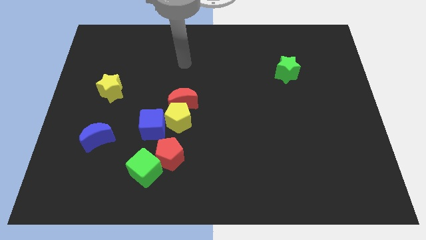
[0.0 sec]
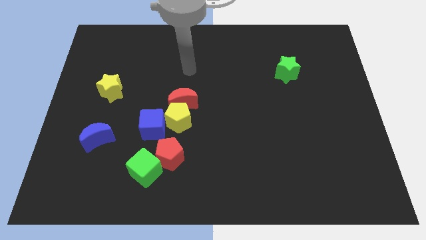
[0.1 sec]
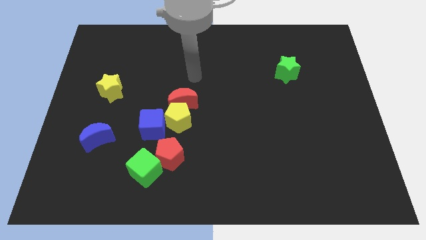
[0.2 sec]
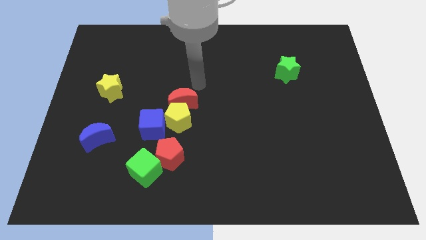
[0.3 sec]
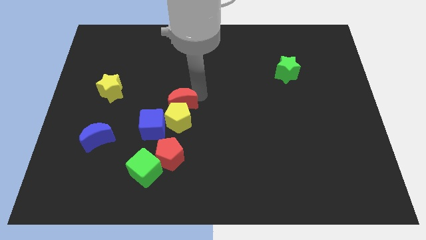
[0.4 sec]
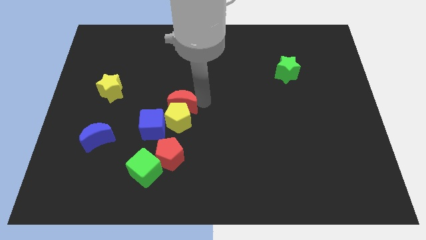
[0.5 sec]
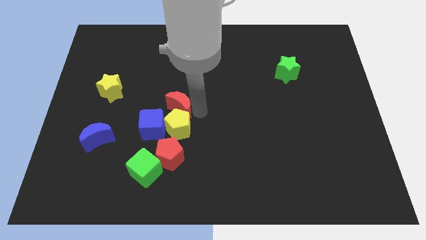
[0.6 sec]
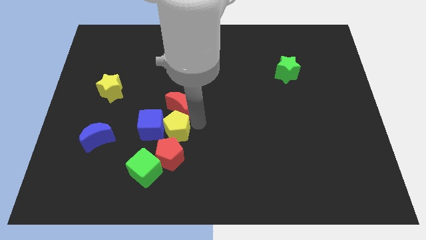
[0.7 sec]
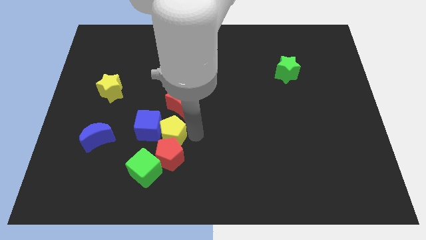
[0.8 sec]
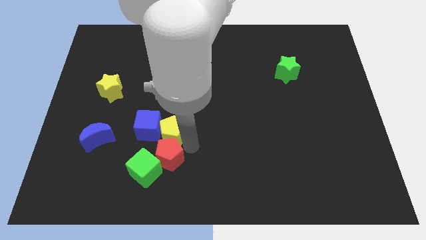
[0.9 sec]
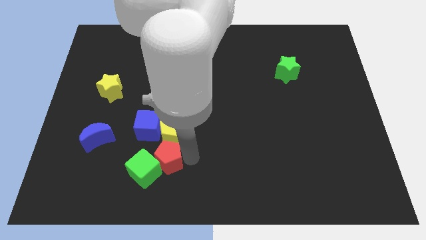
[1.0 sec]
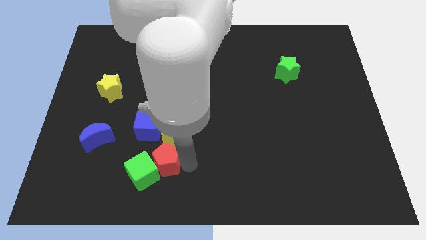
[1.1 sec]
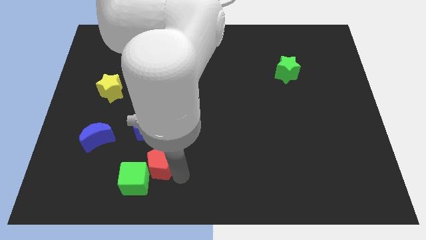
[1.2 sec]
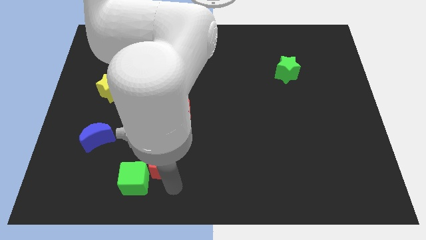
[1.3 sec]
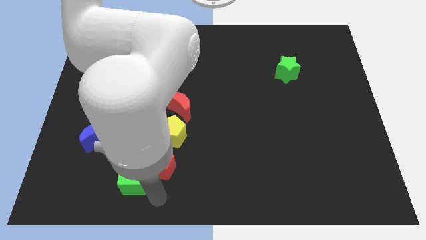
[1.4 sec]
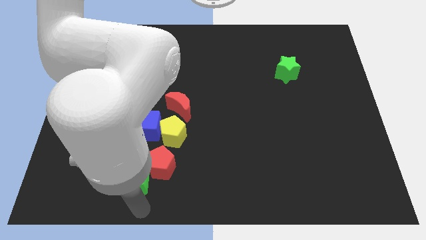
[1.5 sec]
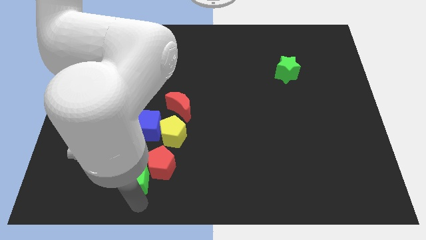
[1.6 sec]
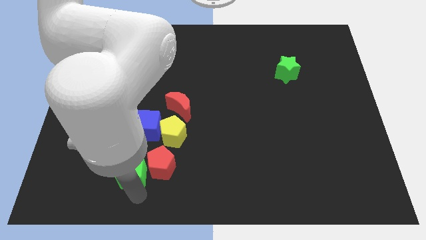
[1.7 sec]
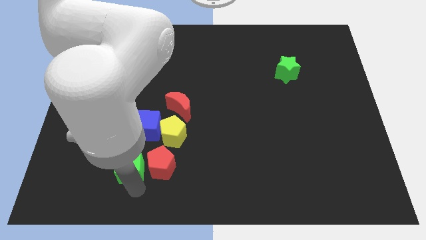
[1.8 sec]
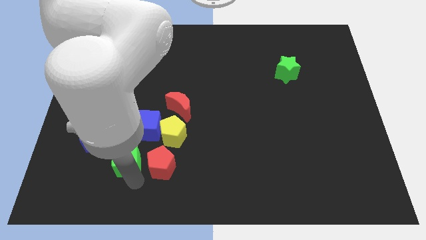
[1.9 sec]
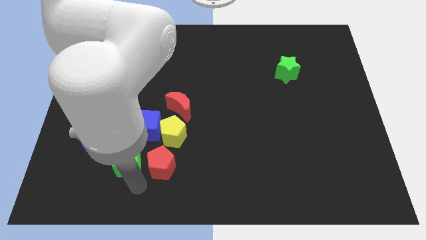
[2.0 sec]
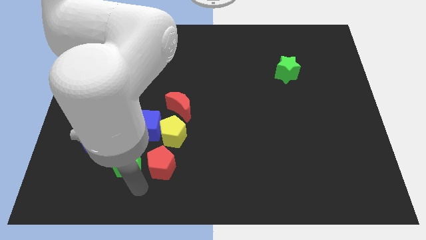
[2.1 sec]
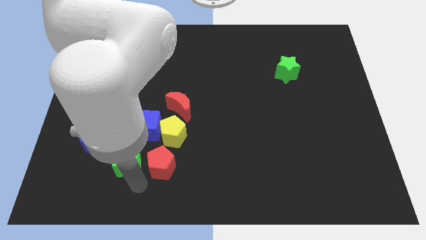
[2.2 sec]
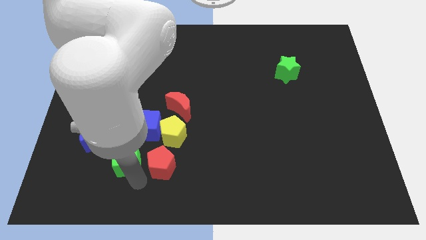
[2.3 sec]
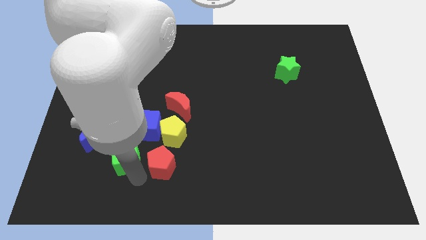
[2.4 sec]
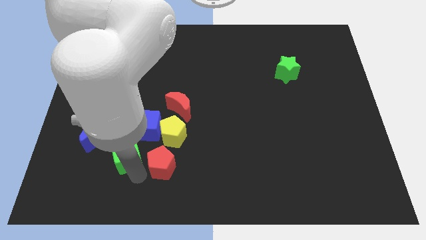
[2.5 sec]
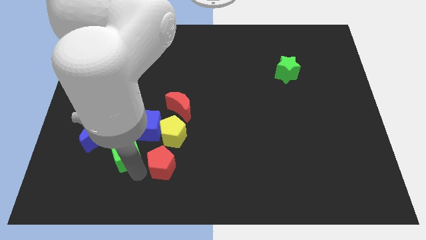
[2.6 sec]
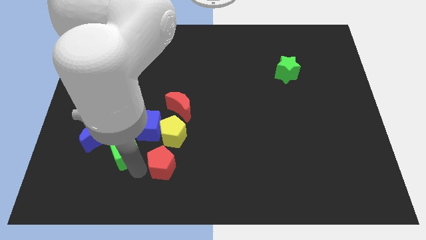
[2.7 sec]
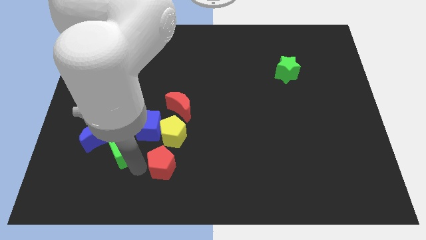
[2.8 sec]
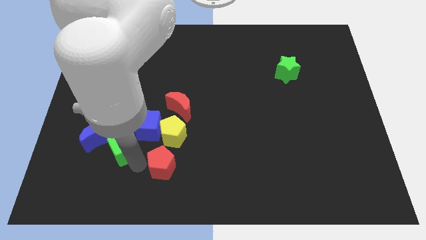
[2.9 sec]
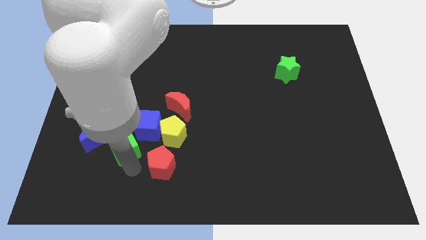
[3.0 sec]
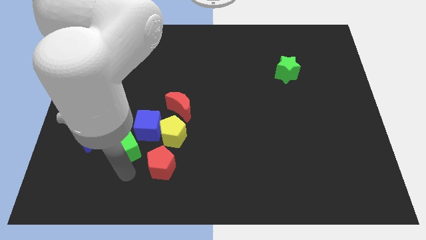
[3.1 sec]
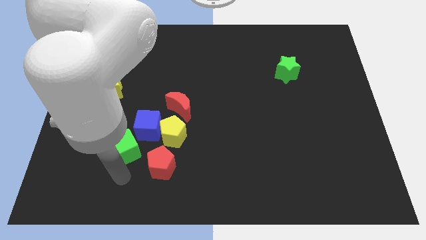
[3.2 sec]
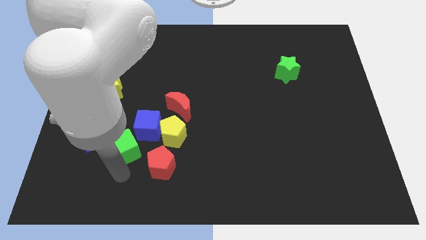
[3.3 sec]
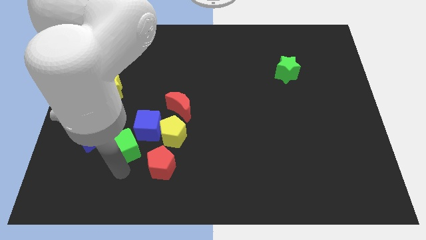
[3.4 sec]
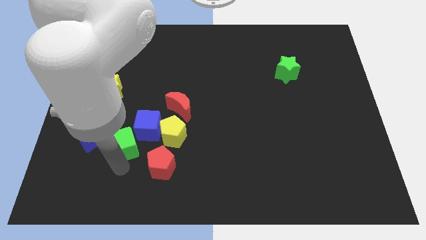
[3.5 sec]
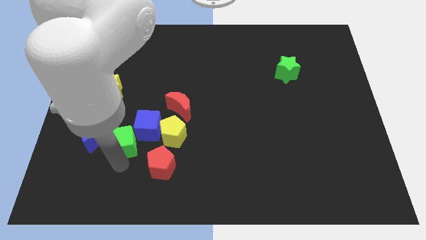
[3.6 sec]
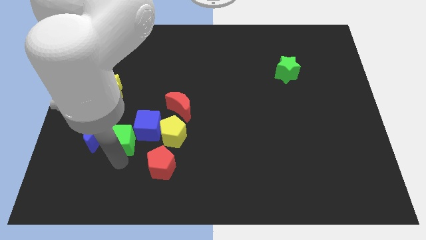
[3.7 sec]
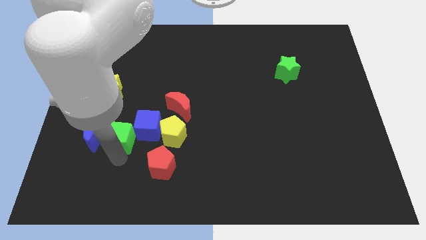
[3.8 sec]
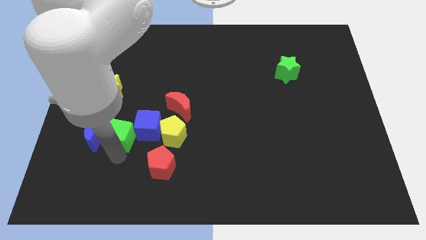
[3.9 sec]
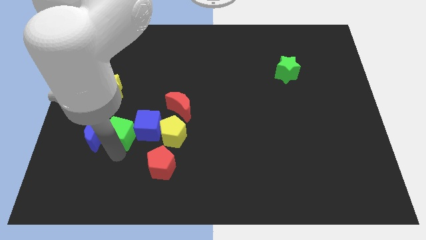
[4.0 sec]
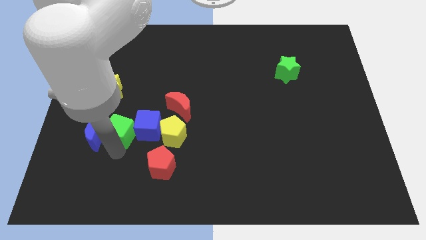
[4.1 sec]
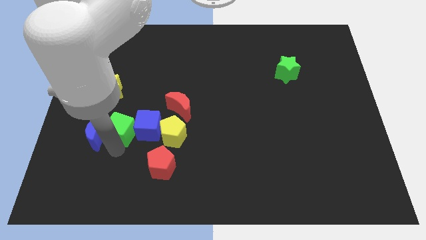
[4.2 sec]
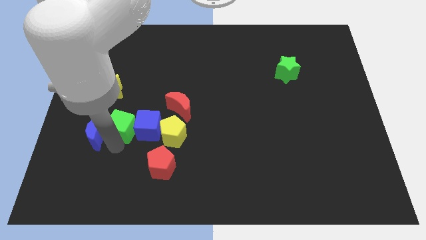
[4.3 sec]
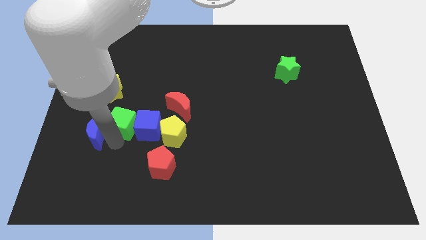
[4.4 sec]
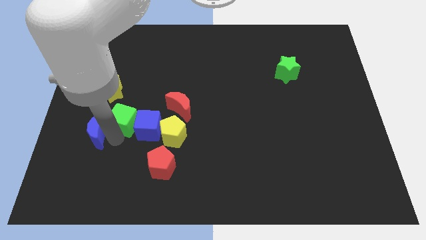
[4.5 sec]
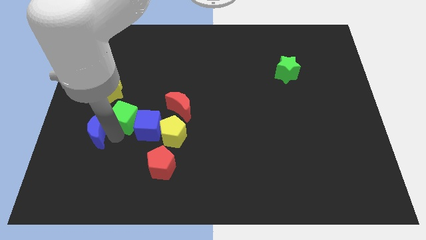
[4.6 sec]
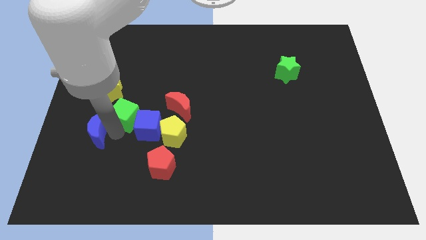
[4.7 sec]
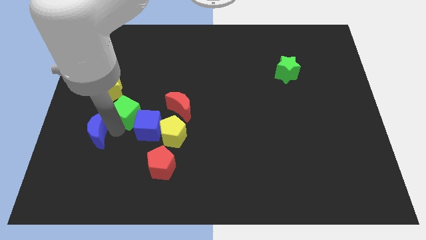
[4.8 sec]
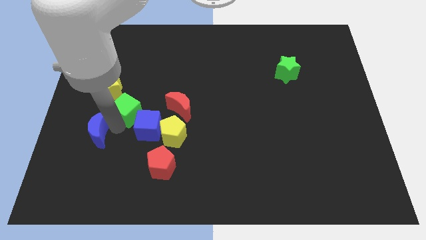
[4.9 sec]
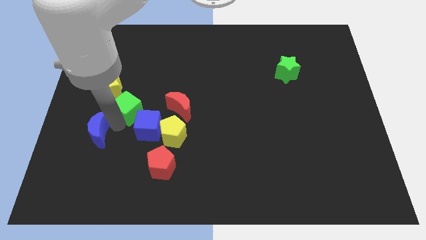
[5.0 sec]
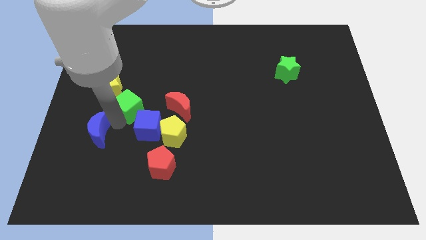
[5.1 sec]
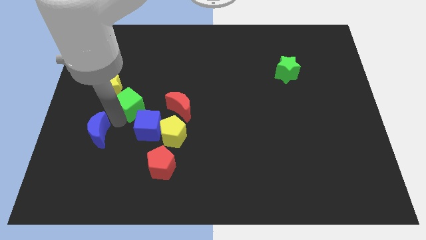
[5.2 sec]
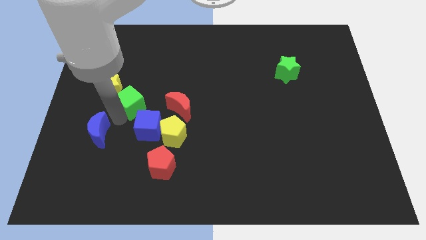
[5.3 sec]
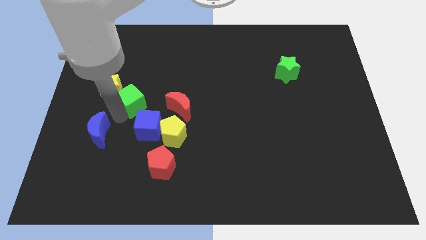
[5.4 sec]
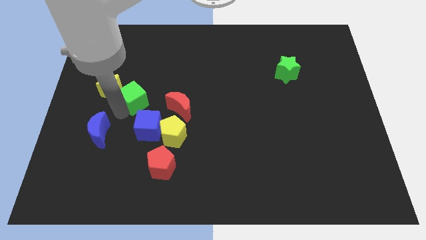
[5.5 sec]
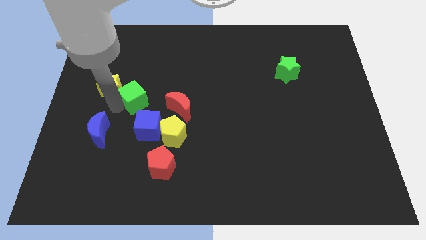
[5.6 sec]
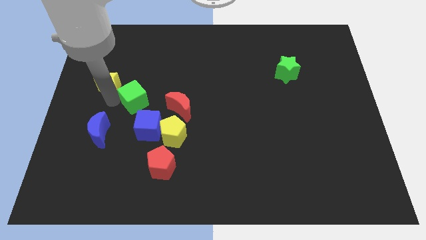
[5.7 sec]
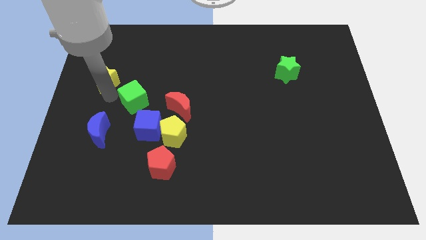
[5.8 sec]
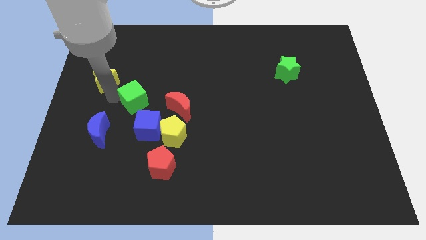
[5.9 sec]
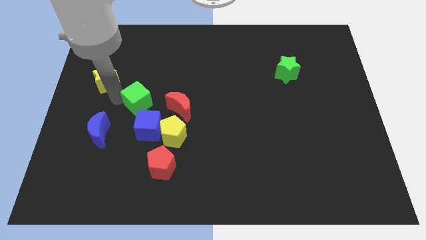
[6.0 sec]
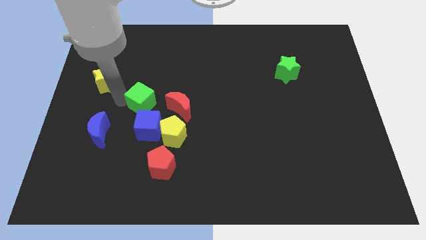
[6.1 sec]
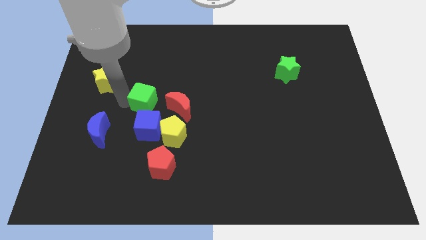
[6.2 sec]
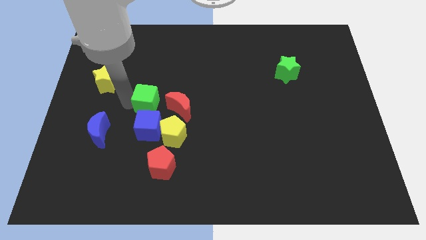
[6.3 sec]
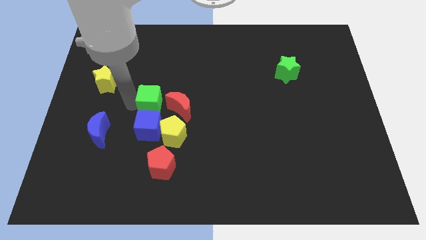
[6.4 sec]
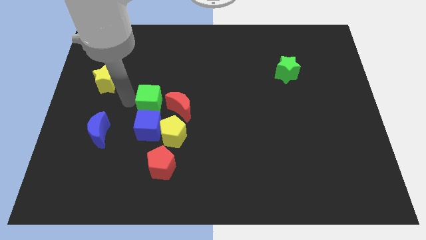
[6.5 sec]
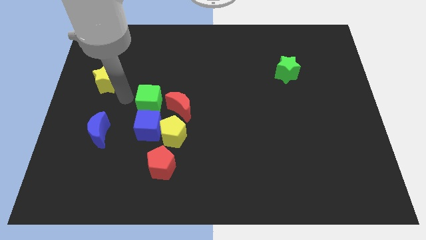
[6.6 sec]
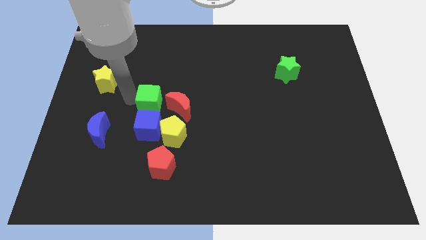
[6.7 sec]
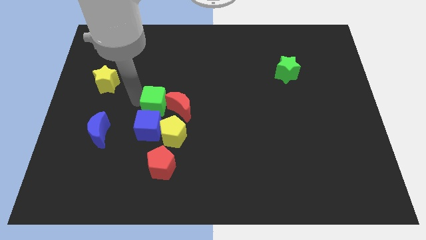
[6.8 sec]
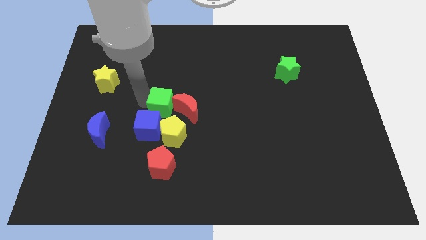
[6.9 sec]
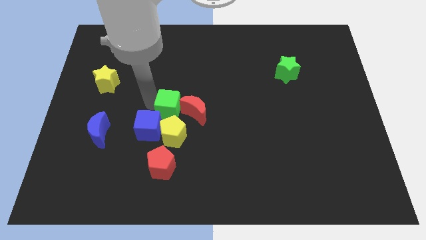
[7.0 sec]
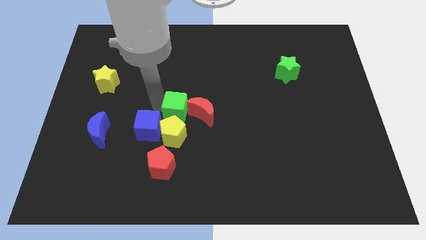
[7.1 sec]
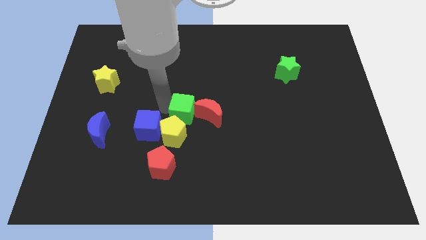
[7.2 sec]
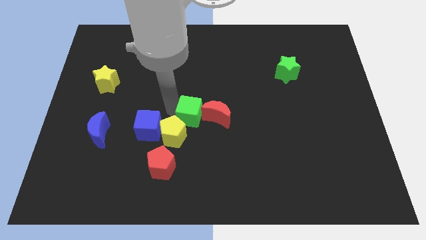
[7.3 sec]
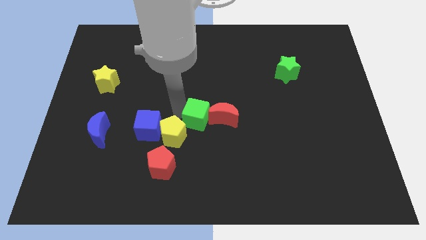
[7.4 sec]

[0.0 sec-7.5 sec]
put the green cube next to the red moon
